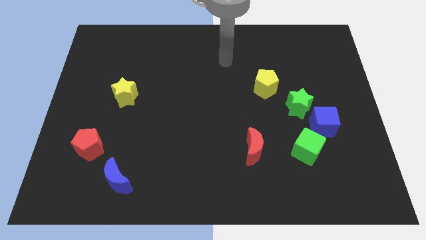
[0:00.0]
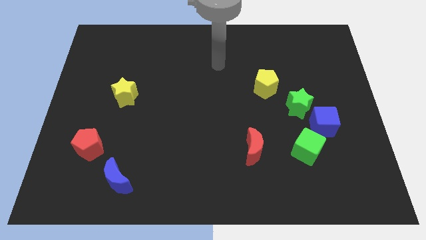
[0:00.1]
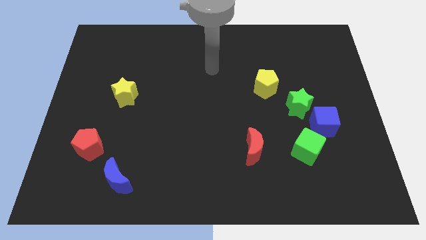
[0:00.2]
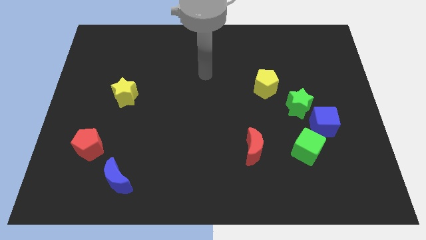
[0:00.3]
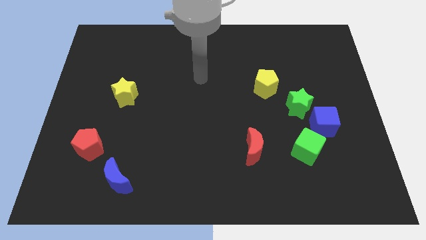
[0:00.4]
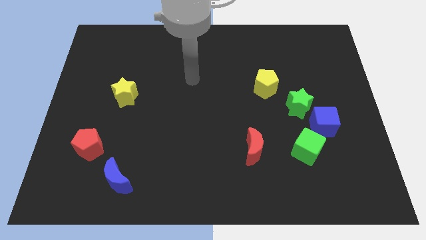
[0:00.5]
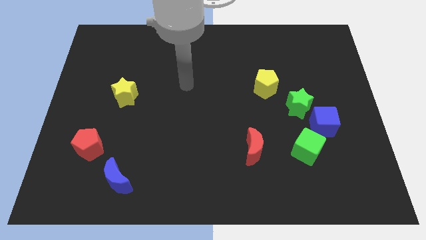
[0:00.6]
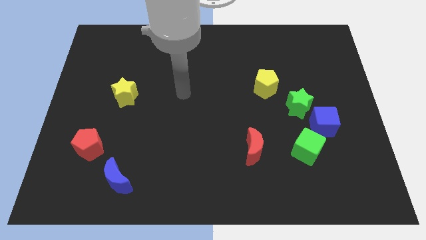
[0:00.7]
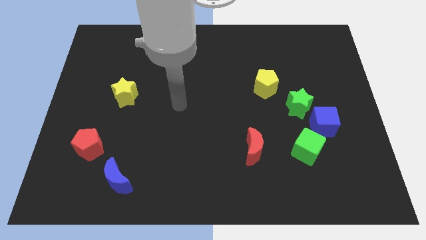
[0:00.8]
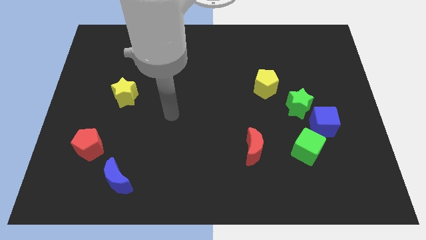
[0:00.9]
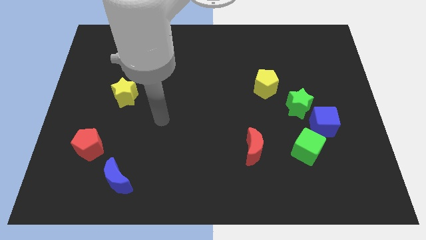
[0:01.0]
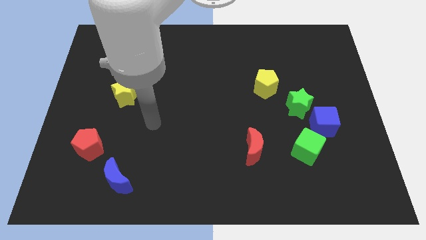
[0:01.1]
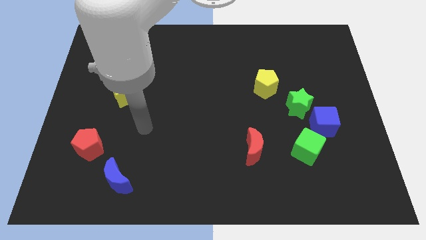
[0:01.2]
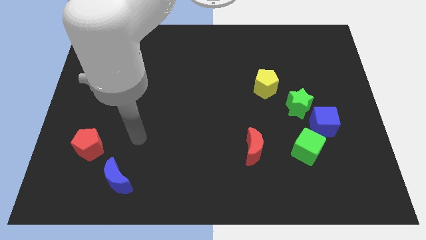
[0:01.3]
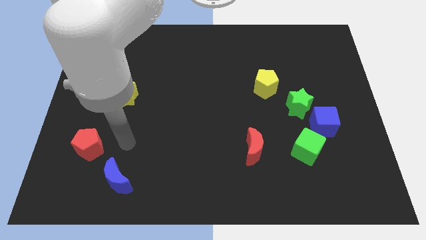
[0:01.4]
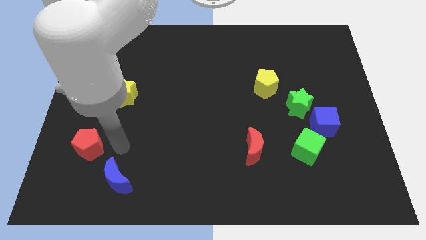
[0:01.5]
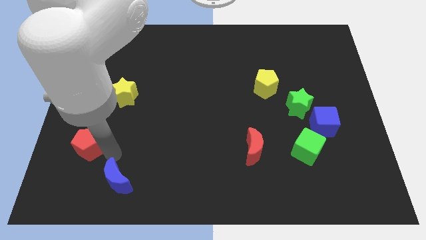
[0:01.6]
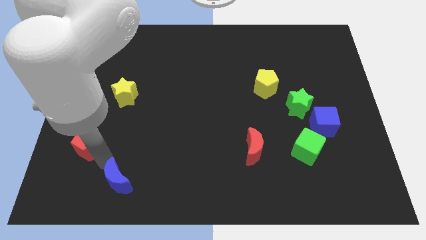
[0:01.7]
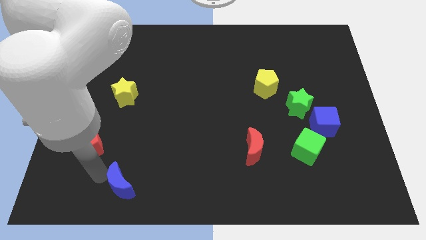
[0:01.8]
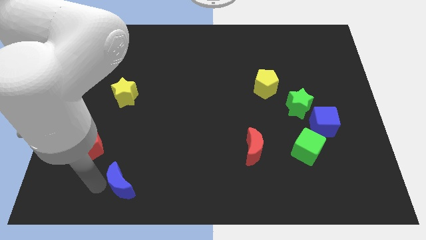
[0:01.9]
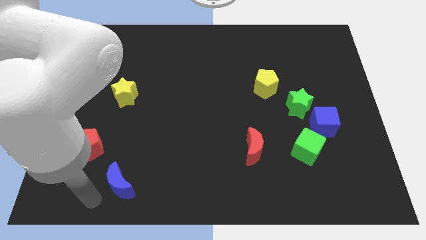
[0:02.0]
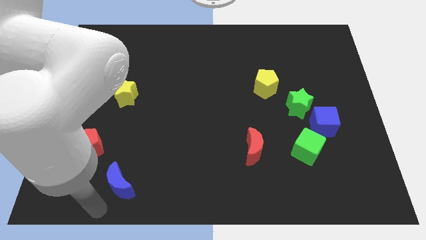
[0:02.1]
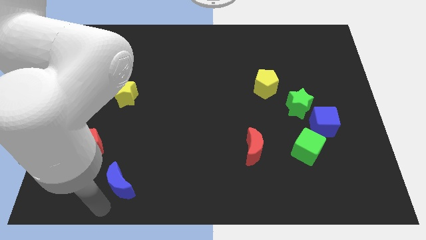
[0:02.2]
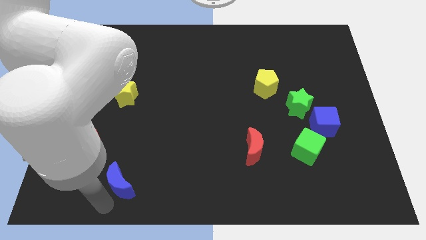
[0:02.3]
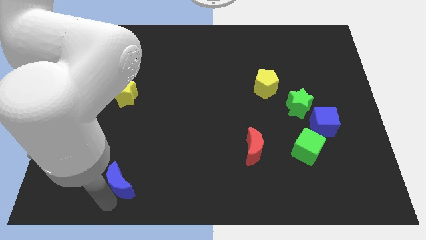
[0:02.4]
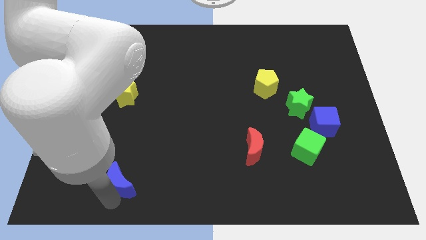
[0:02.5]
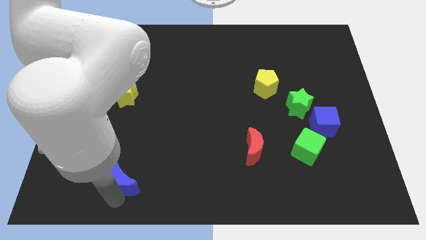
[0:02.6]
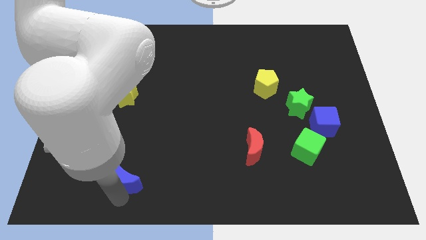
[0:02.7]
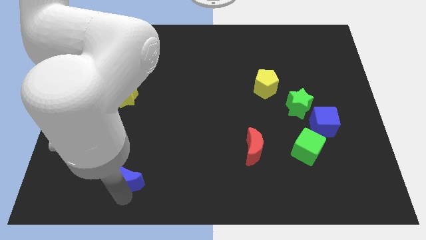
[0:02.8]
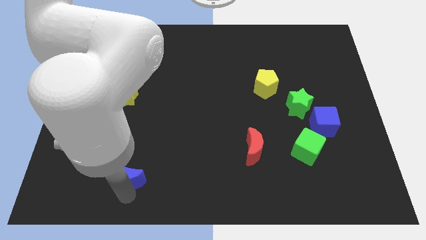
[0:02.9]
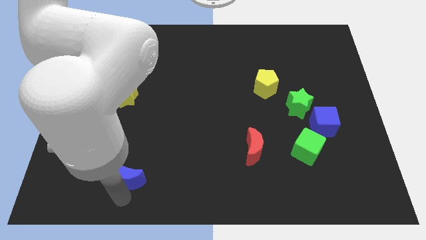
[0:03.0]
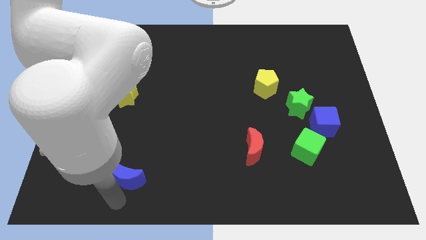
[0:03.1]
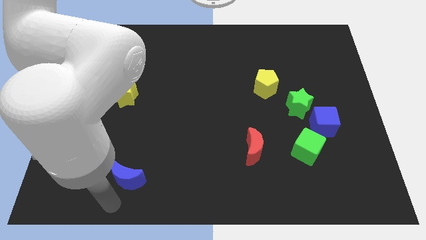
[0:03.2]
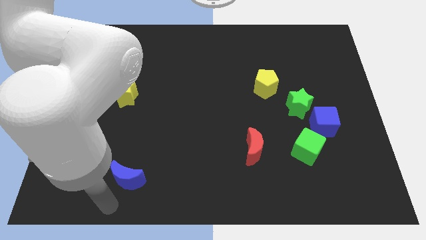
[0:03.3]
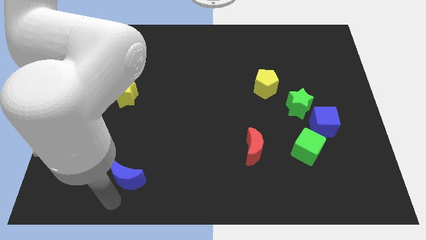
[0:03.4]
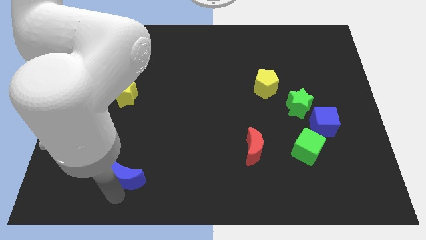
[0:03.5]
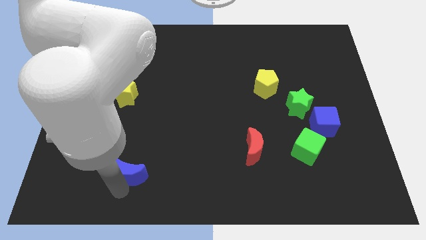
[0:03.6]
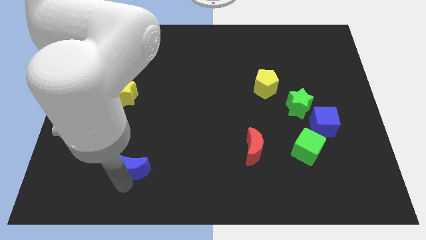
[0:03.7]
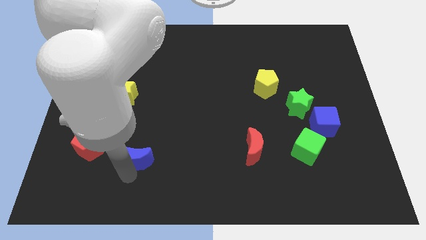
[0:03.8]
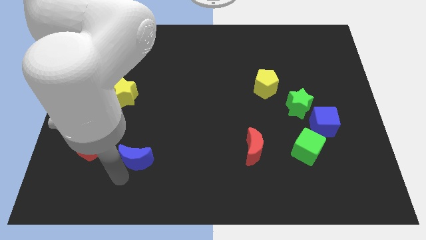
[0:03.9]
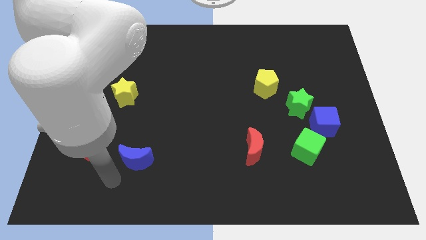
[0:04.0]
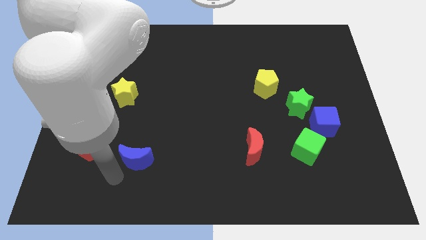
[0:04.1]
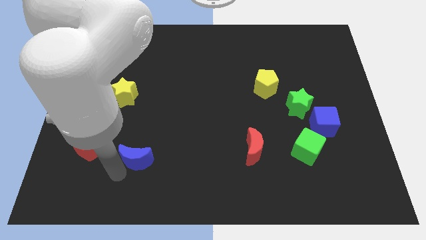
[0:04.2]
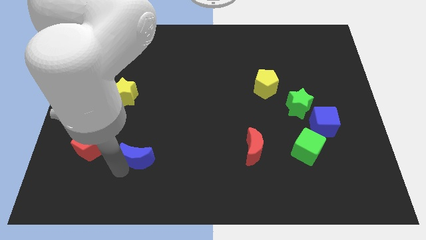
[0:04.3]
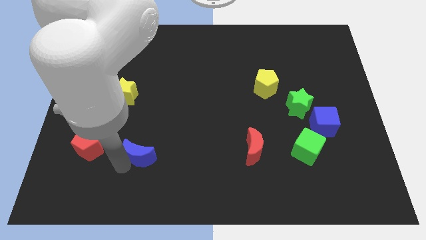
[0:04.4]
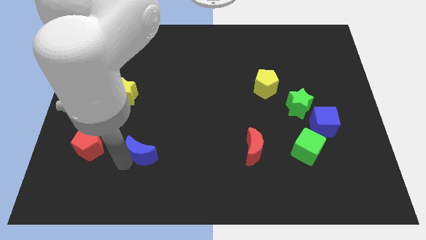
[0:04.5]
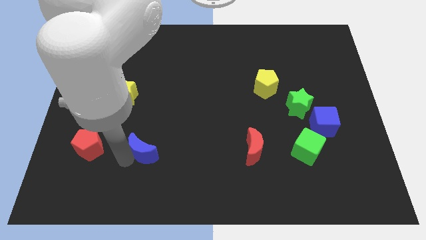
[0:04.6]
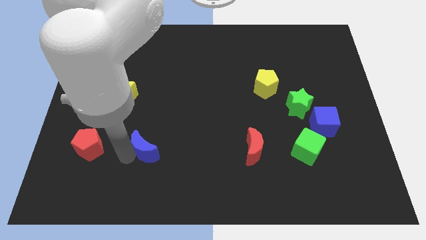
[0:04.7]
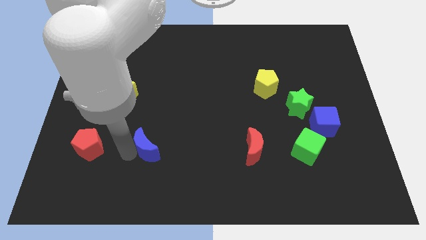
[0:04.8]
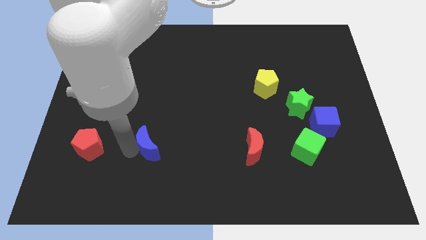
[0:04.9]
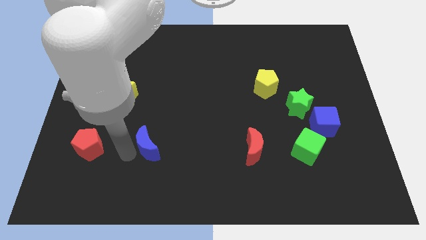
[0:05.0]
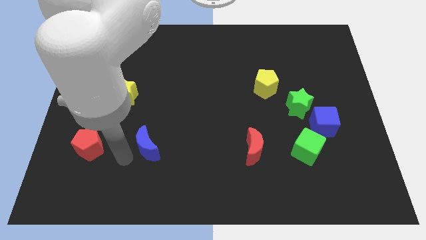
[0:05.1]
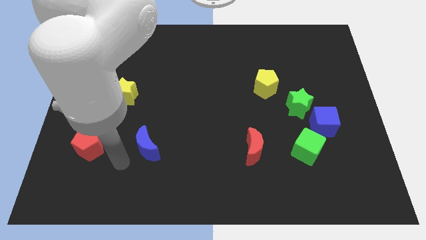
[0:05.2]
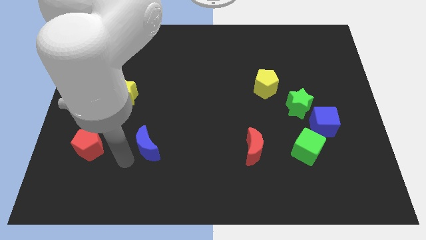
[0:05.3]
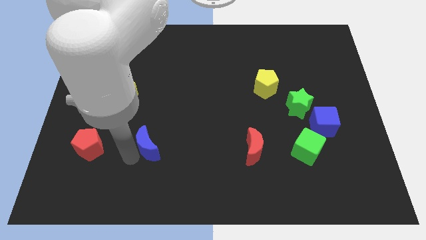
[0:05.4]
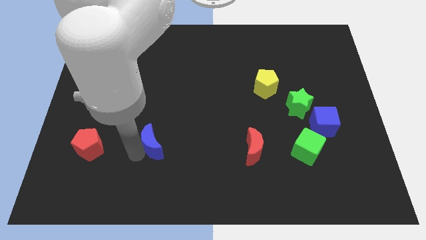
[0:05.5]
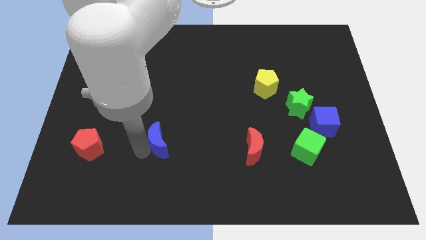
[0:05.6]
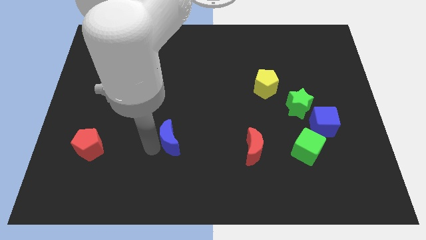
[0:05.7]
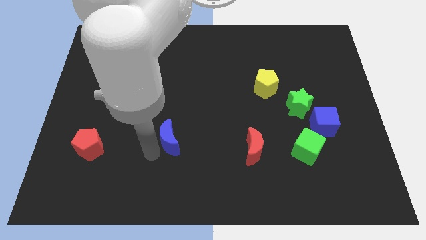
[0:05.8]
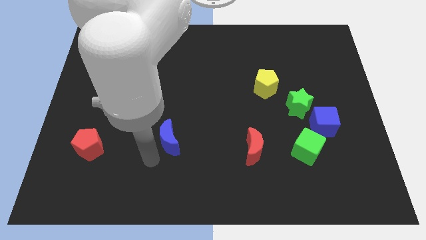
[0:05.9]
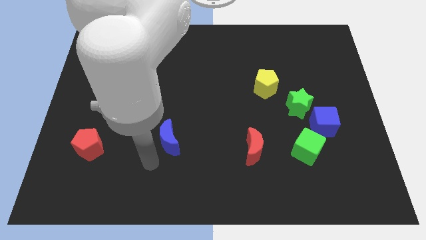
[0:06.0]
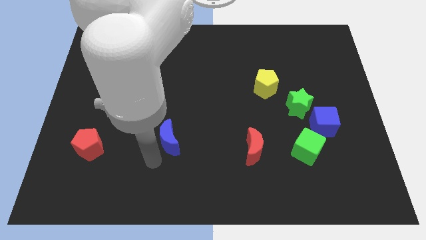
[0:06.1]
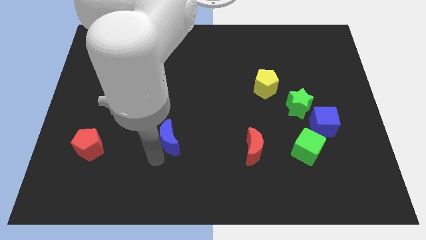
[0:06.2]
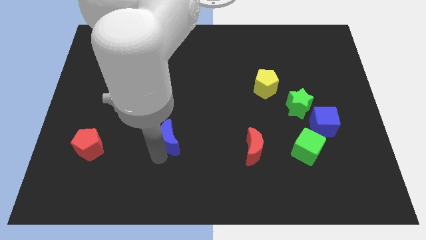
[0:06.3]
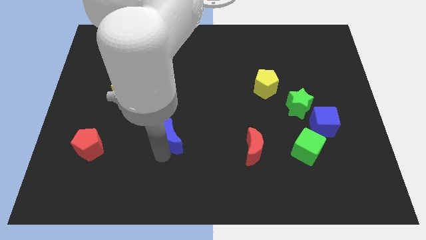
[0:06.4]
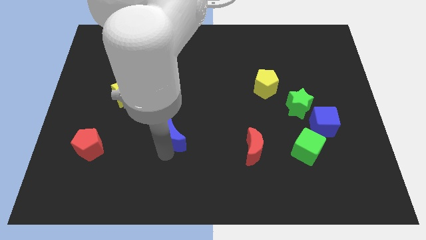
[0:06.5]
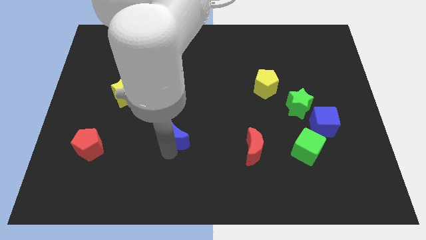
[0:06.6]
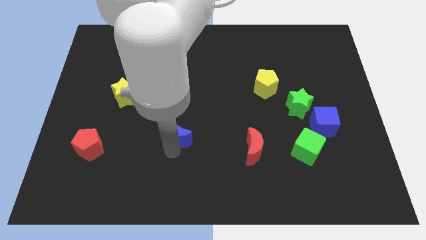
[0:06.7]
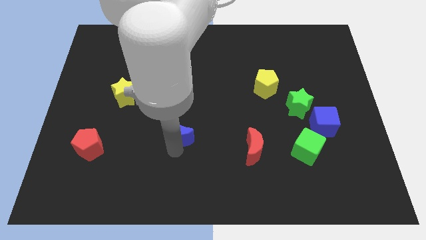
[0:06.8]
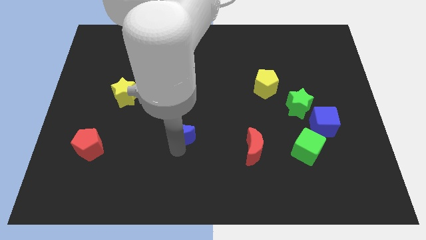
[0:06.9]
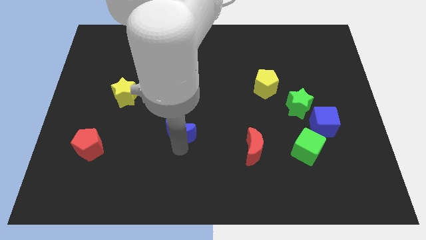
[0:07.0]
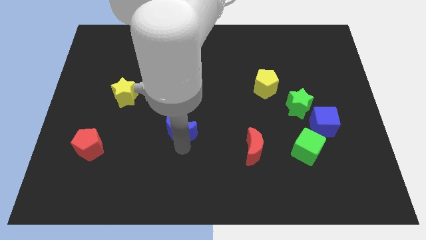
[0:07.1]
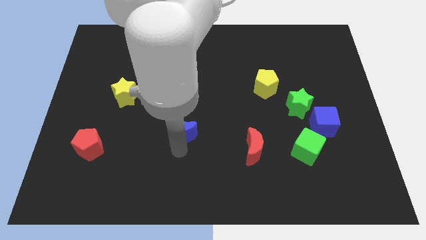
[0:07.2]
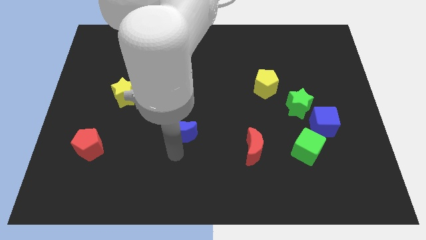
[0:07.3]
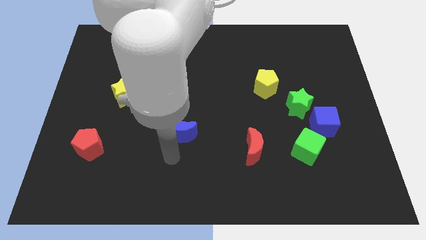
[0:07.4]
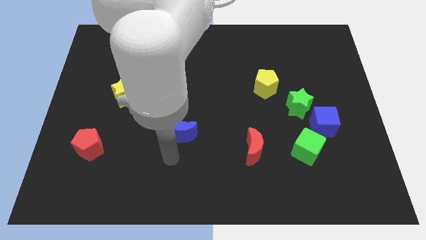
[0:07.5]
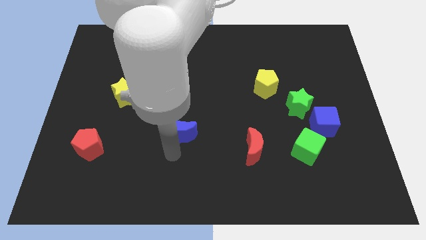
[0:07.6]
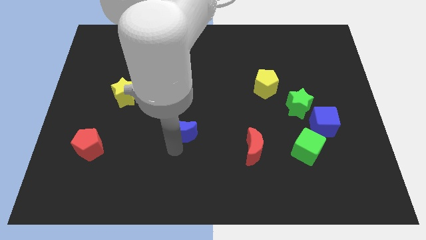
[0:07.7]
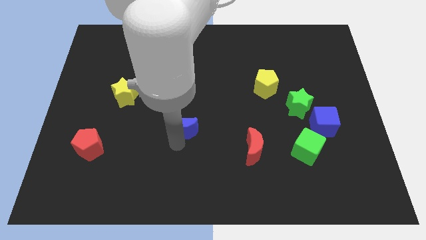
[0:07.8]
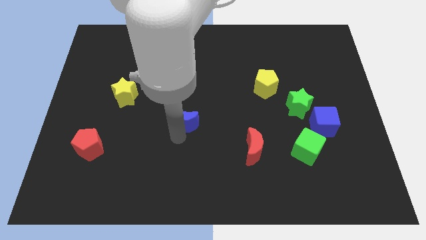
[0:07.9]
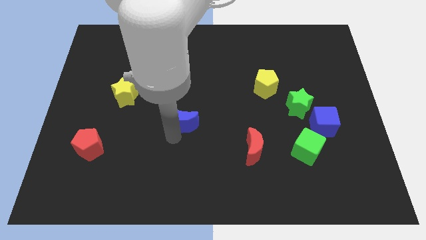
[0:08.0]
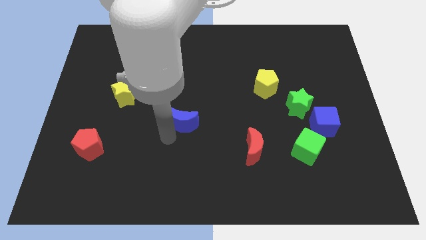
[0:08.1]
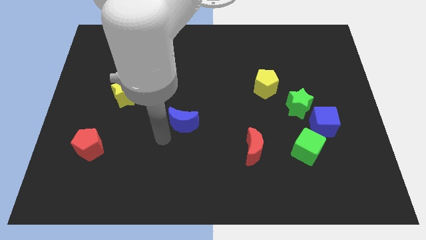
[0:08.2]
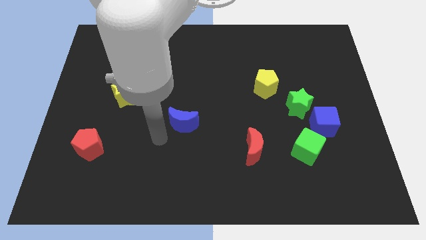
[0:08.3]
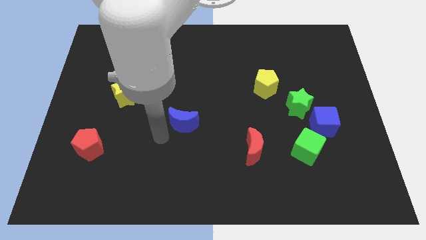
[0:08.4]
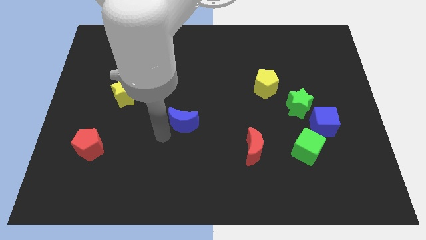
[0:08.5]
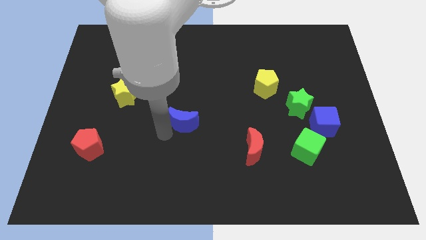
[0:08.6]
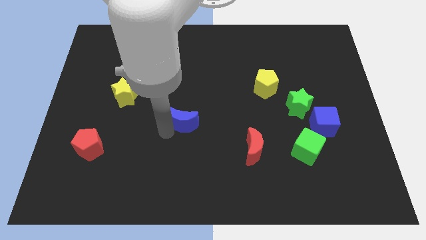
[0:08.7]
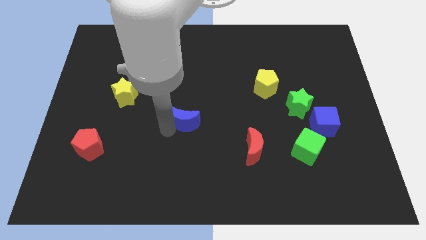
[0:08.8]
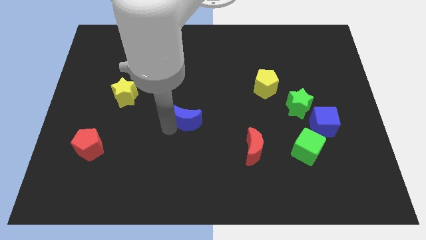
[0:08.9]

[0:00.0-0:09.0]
push the blue moon upwards and then right
